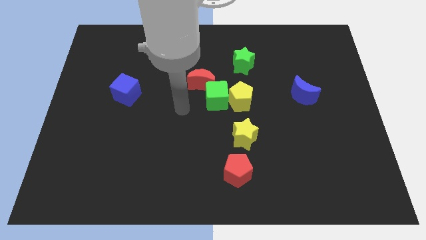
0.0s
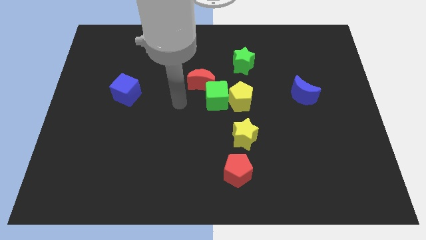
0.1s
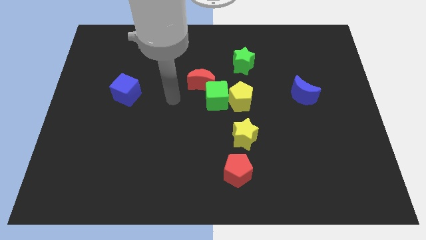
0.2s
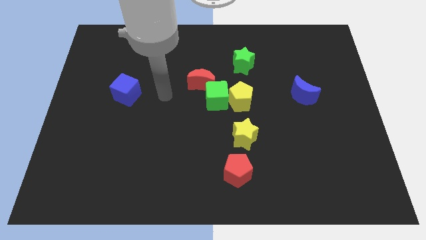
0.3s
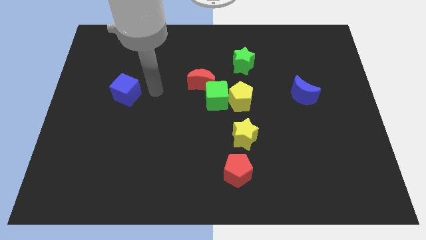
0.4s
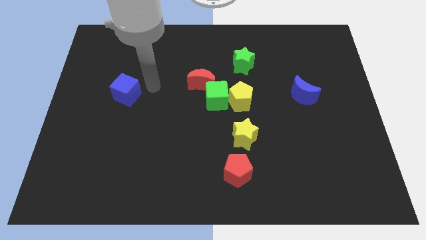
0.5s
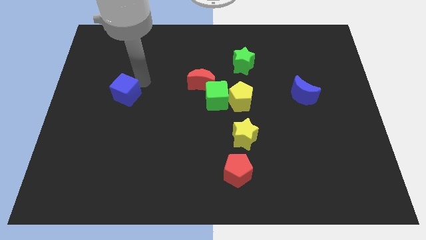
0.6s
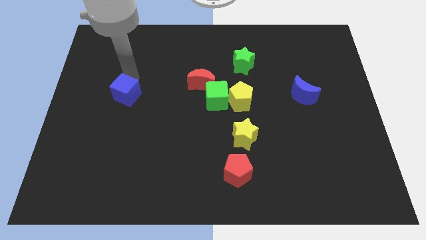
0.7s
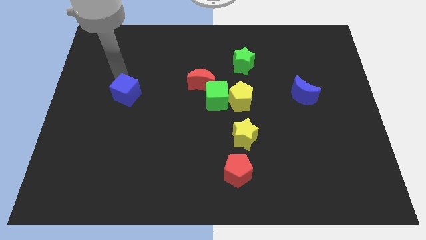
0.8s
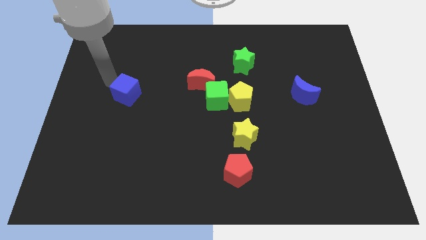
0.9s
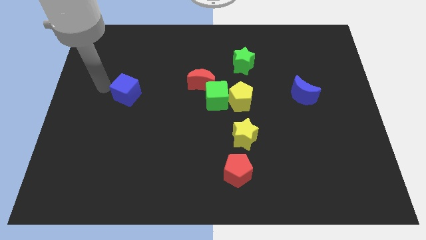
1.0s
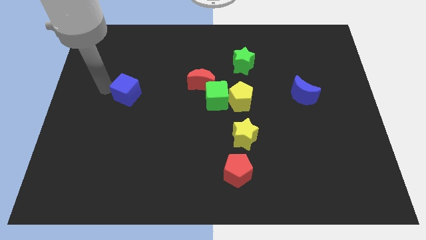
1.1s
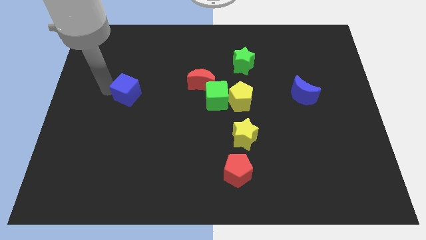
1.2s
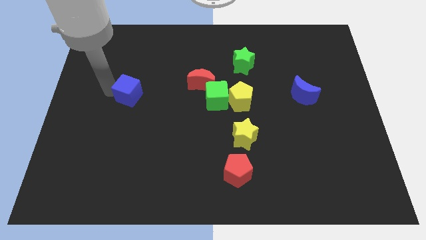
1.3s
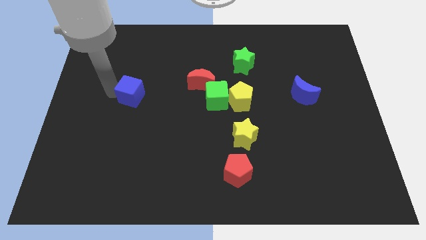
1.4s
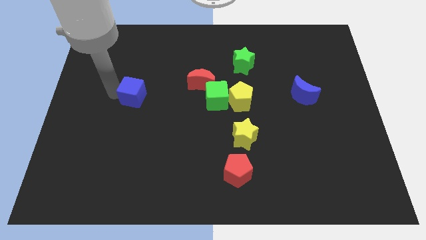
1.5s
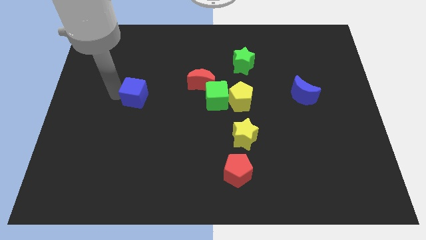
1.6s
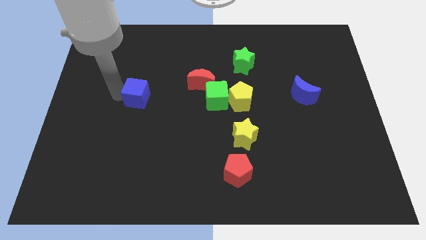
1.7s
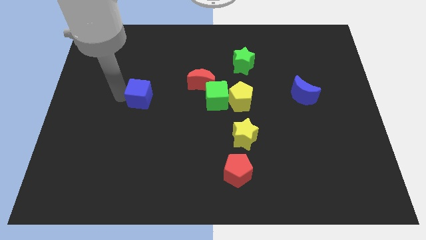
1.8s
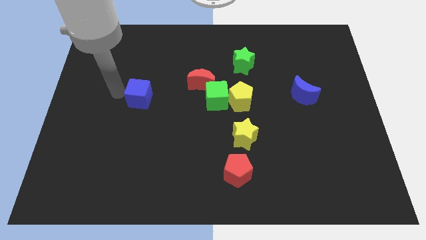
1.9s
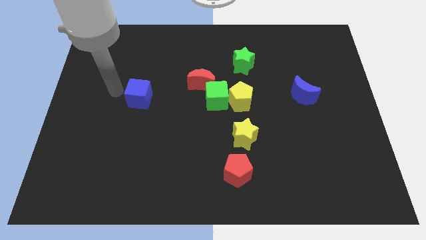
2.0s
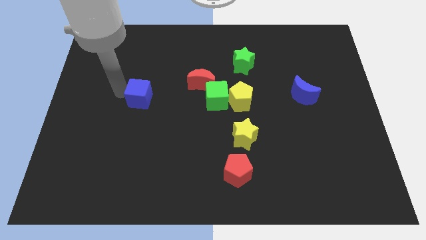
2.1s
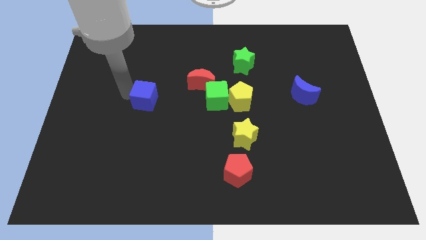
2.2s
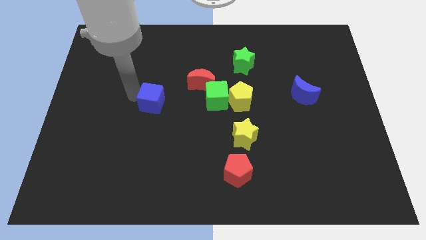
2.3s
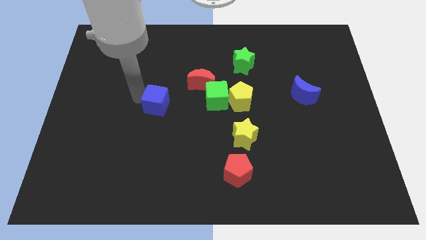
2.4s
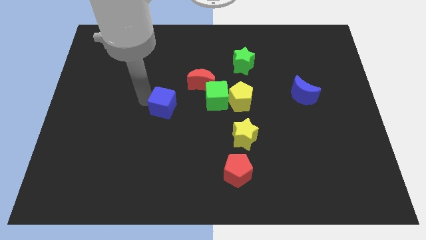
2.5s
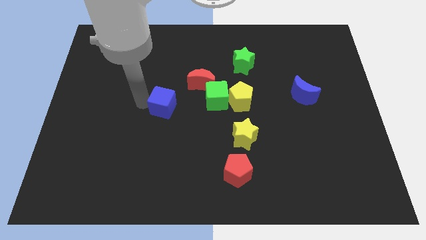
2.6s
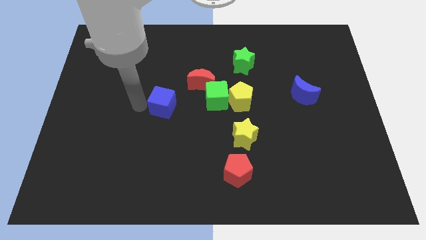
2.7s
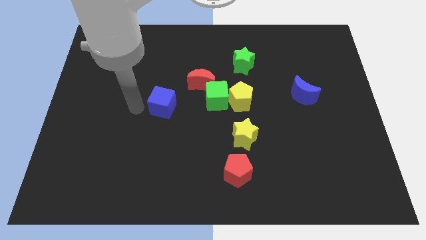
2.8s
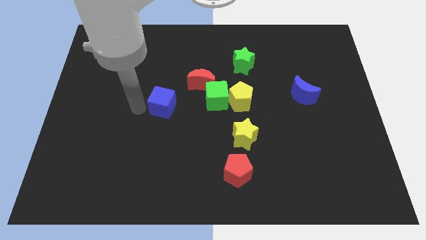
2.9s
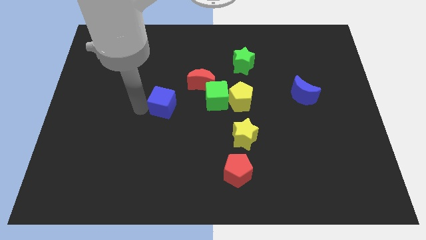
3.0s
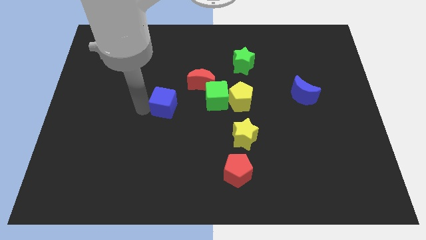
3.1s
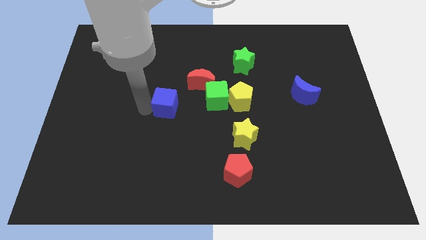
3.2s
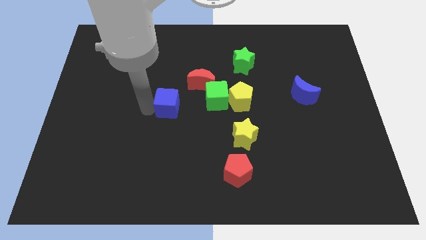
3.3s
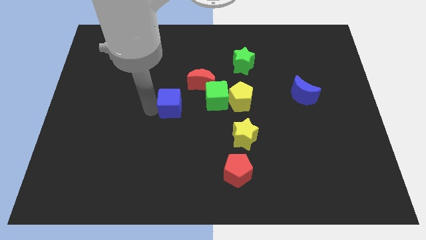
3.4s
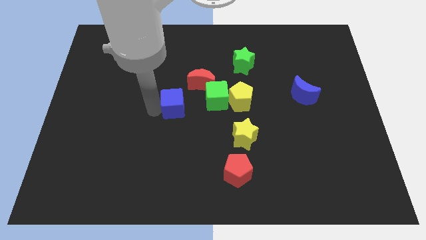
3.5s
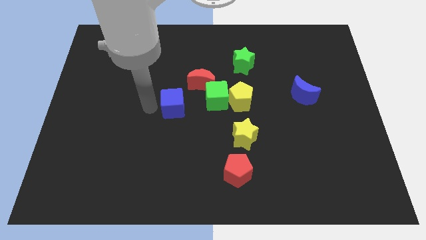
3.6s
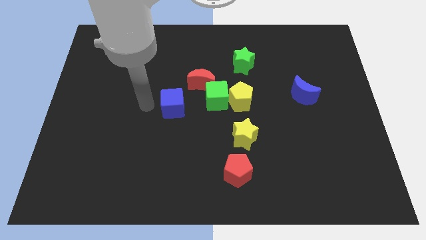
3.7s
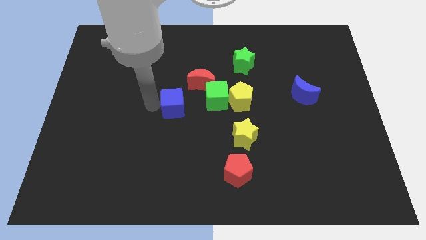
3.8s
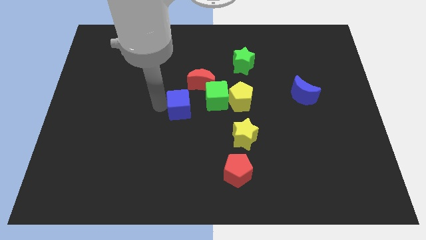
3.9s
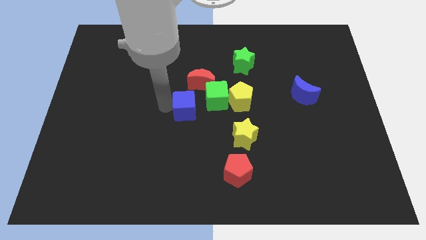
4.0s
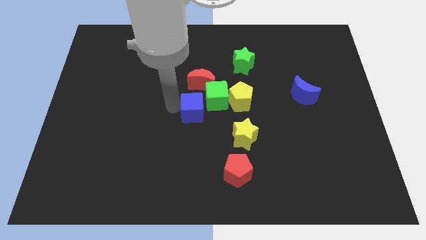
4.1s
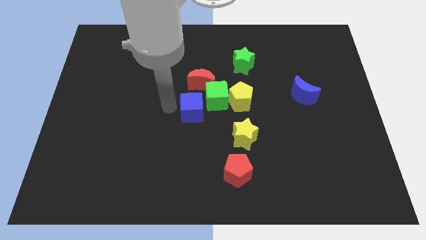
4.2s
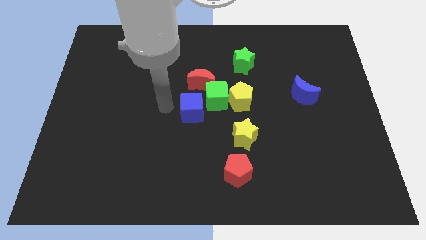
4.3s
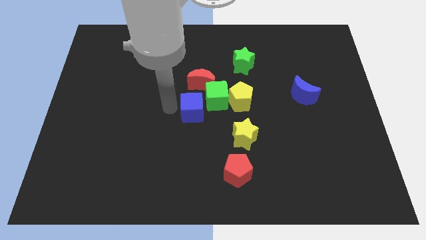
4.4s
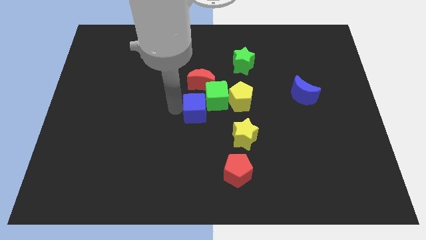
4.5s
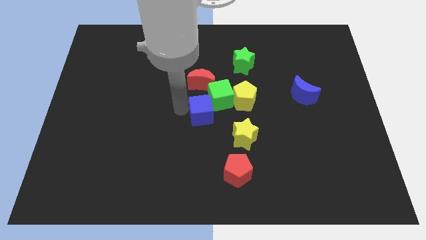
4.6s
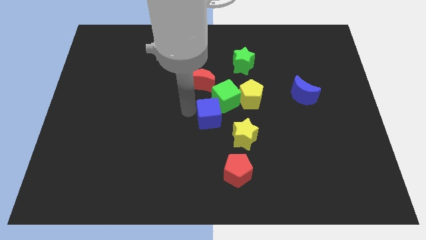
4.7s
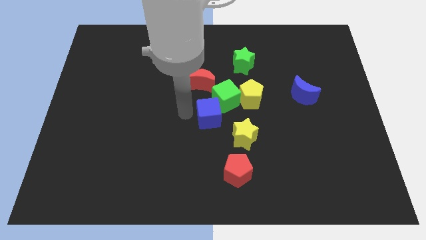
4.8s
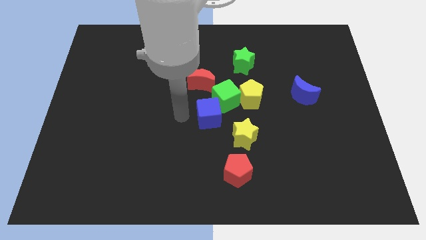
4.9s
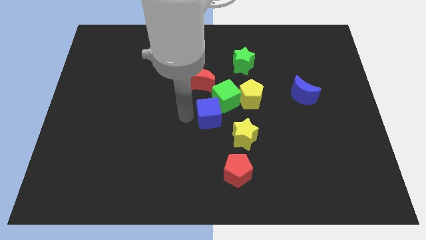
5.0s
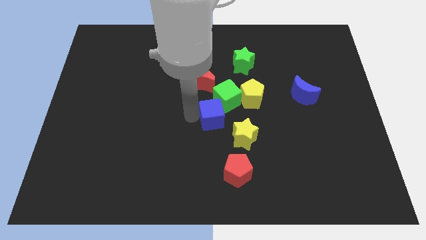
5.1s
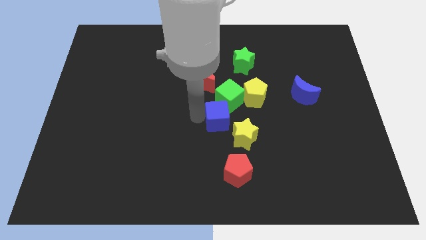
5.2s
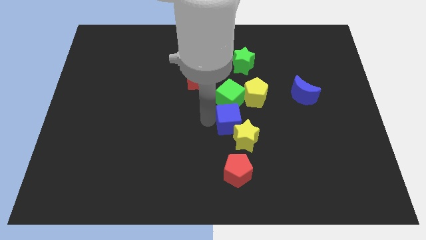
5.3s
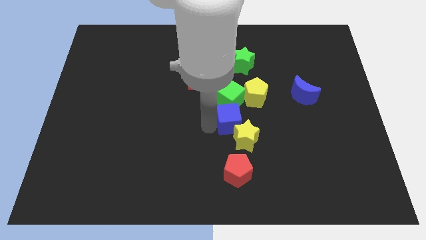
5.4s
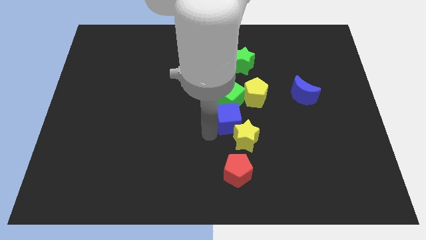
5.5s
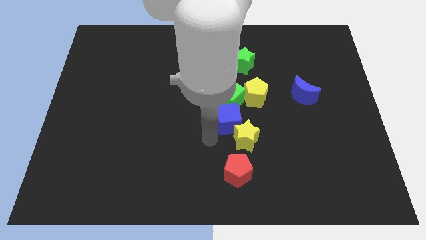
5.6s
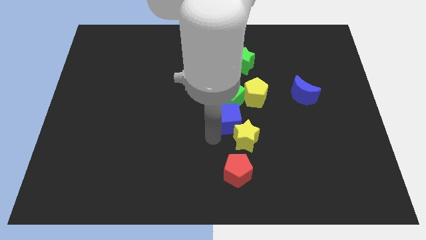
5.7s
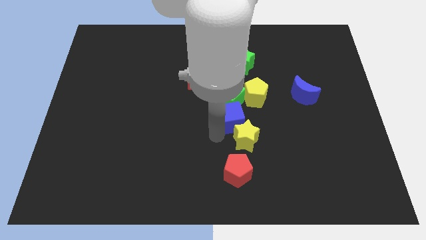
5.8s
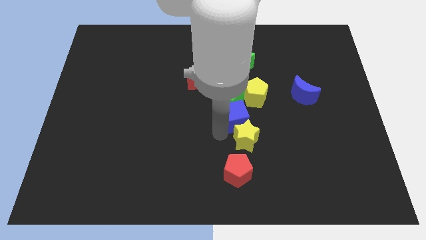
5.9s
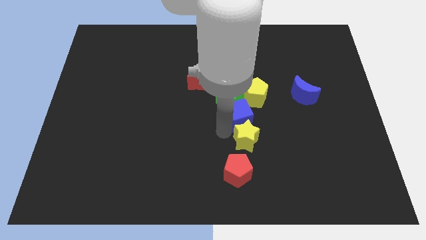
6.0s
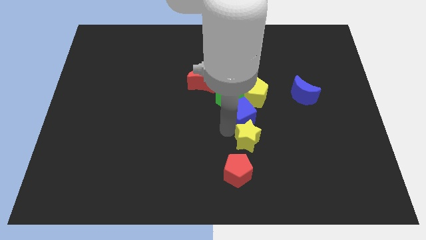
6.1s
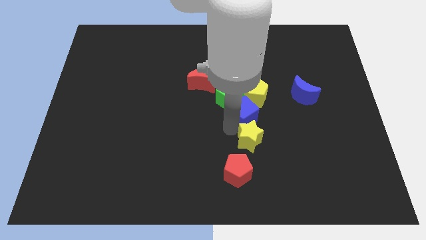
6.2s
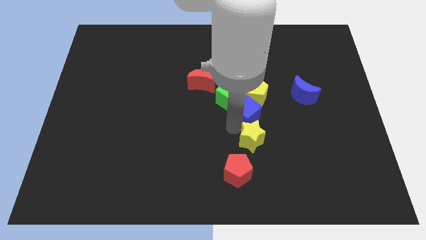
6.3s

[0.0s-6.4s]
move the blue cube towards the yellow pentagon
